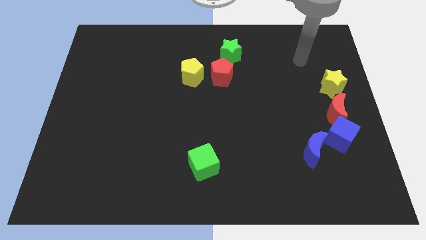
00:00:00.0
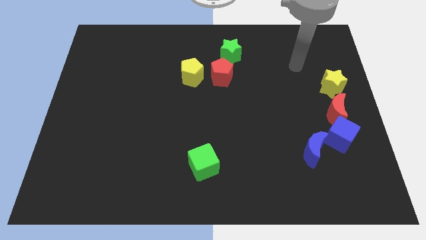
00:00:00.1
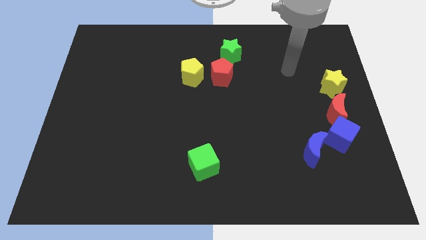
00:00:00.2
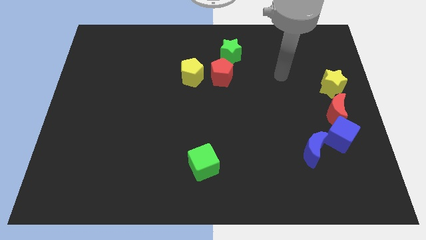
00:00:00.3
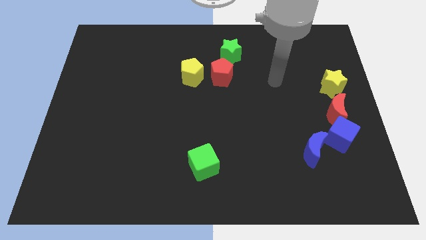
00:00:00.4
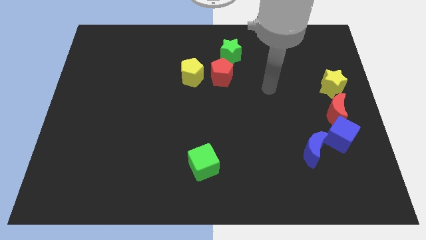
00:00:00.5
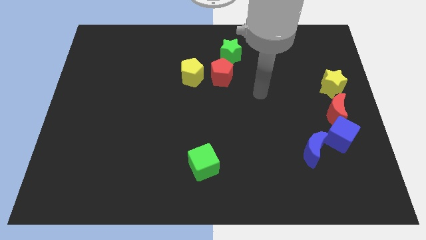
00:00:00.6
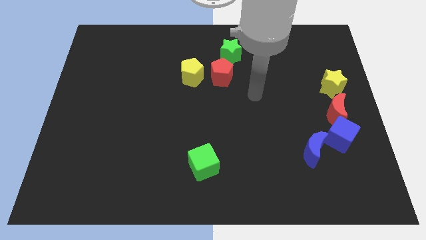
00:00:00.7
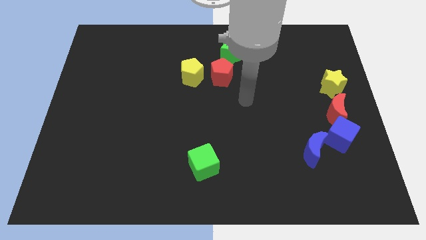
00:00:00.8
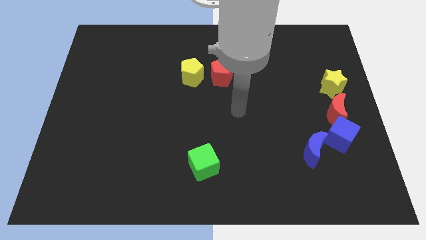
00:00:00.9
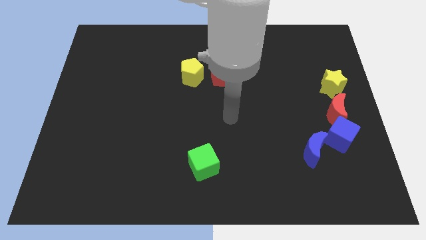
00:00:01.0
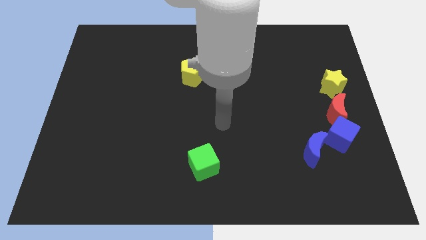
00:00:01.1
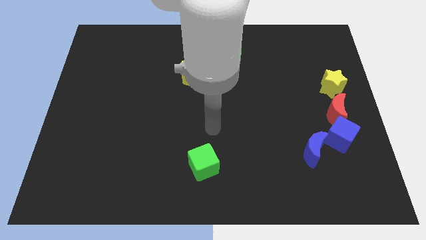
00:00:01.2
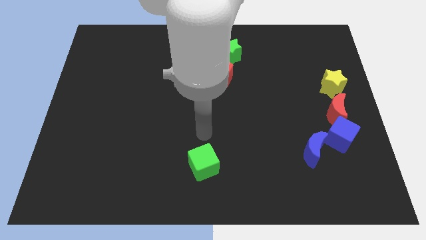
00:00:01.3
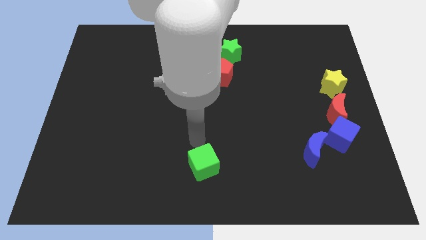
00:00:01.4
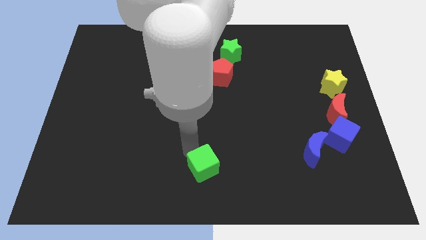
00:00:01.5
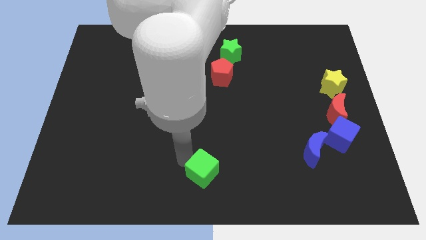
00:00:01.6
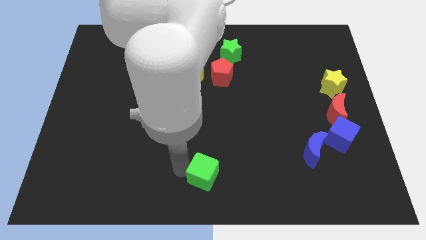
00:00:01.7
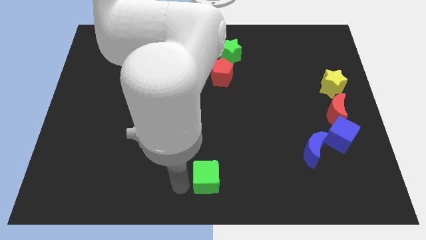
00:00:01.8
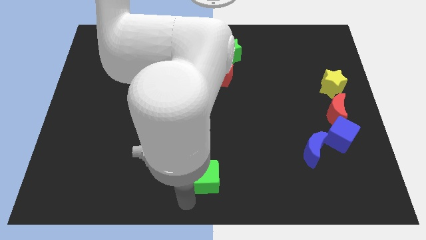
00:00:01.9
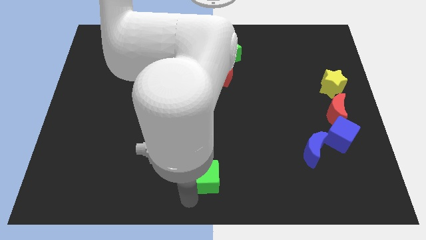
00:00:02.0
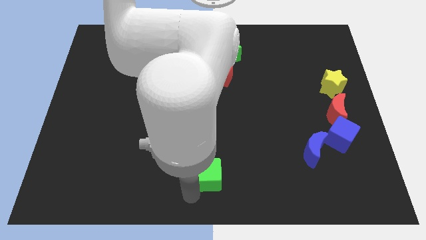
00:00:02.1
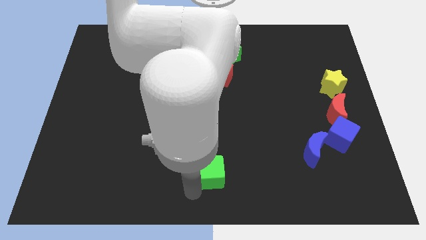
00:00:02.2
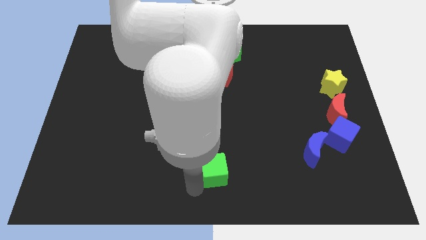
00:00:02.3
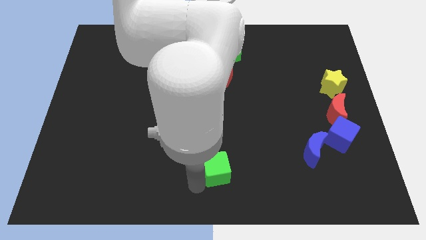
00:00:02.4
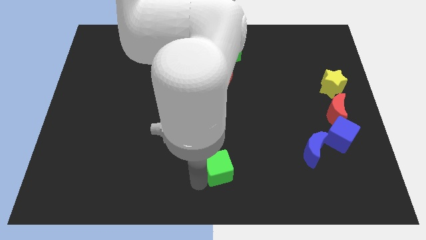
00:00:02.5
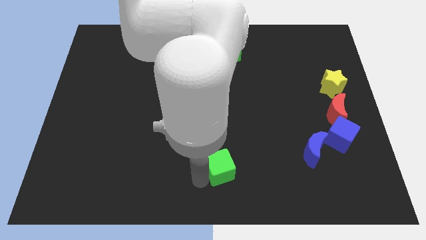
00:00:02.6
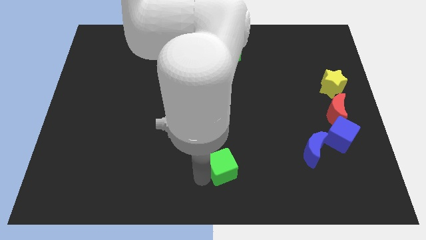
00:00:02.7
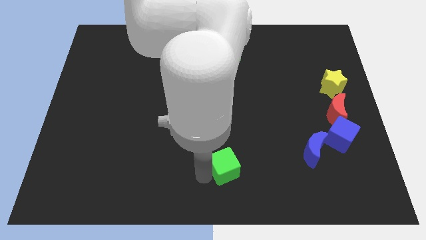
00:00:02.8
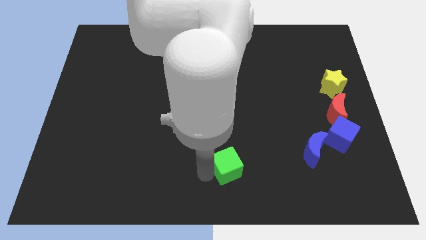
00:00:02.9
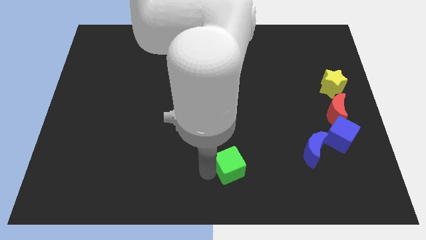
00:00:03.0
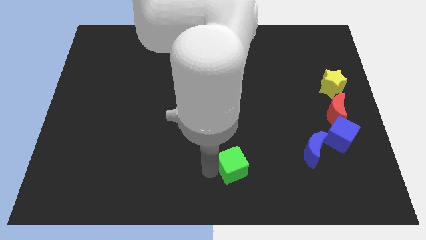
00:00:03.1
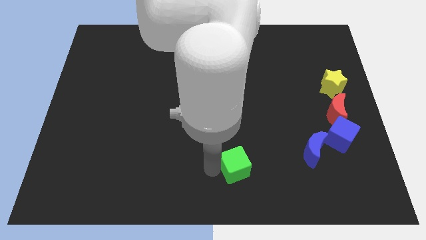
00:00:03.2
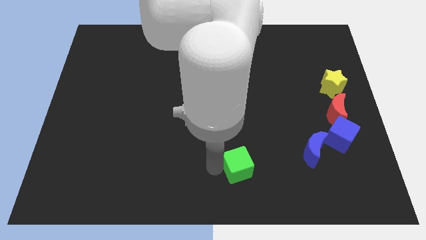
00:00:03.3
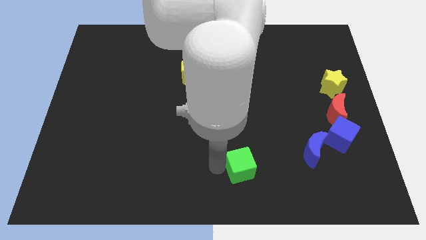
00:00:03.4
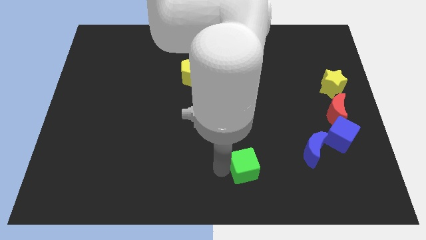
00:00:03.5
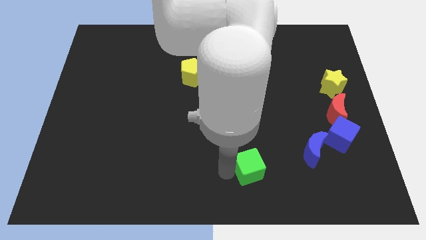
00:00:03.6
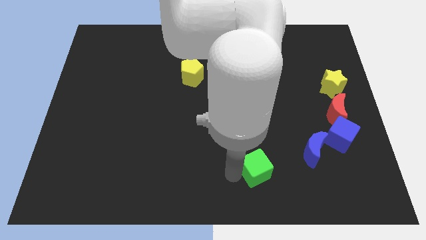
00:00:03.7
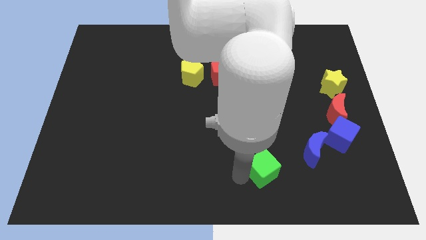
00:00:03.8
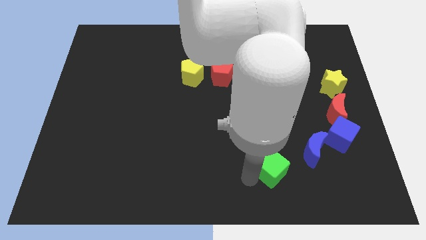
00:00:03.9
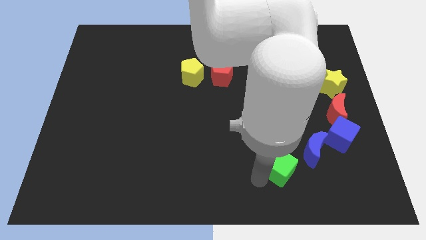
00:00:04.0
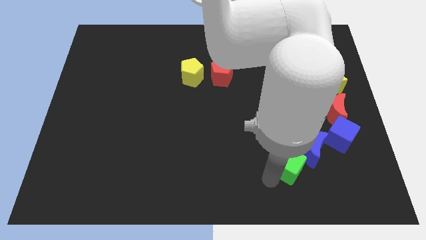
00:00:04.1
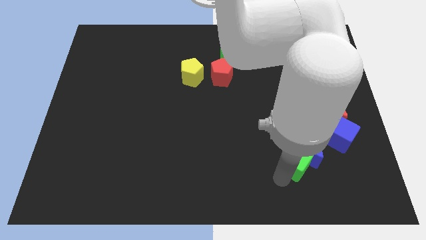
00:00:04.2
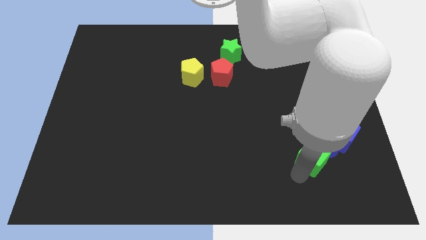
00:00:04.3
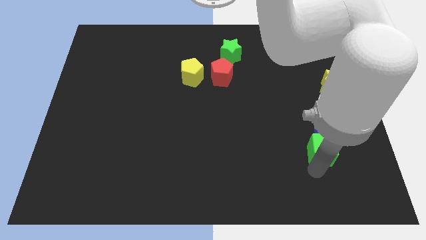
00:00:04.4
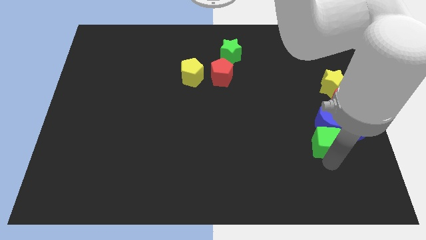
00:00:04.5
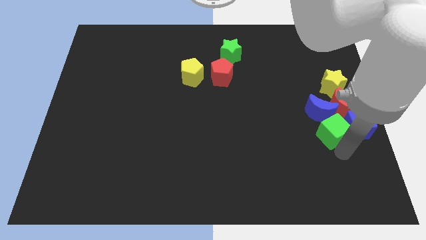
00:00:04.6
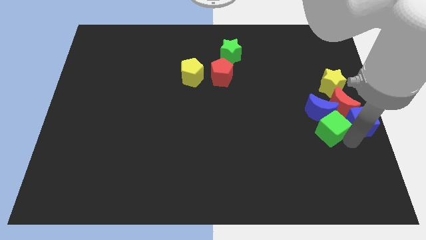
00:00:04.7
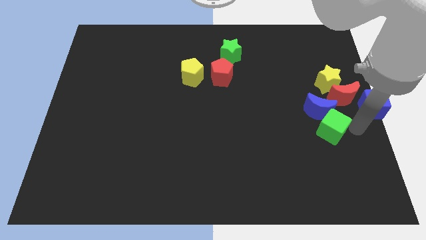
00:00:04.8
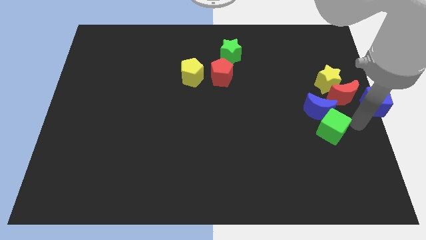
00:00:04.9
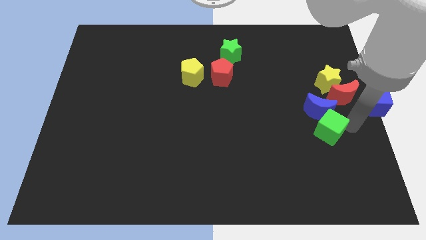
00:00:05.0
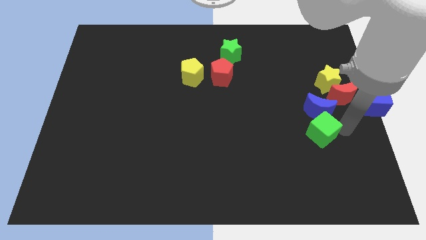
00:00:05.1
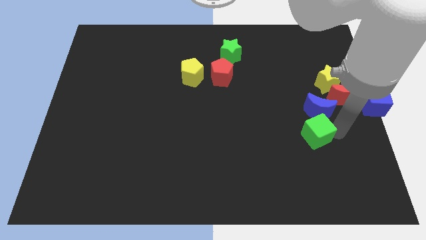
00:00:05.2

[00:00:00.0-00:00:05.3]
push the green cube up and right diagonally a little bit

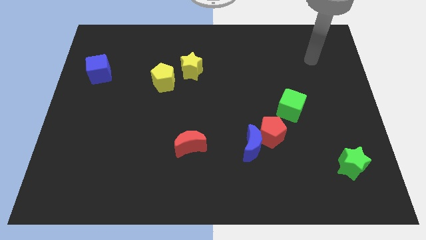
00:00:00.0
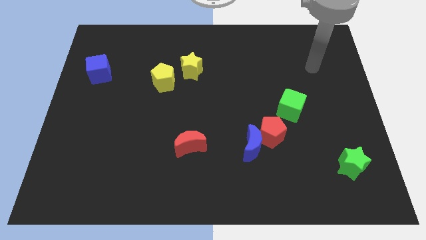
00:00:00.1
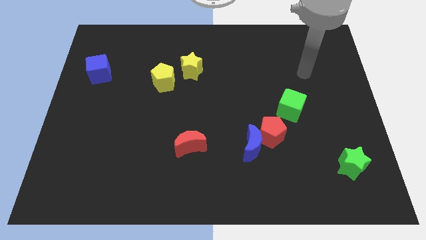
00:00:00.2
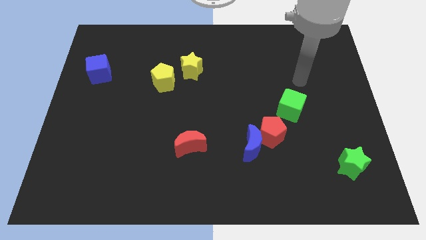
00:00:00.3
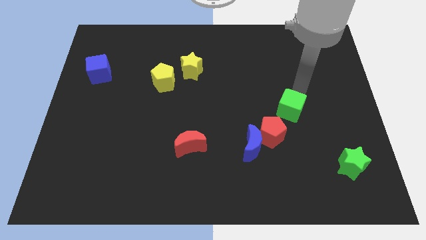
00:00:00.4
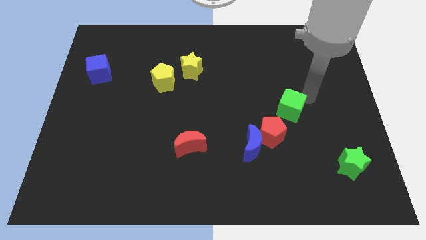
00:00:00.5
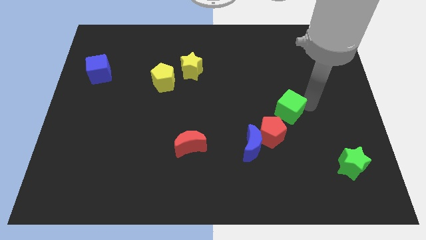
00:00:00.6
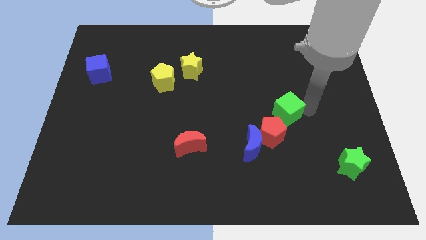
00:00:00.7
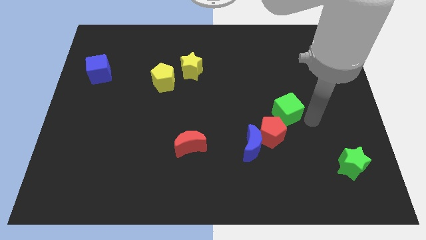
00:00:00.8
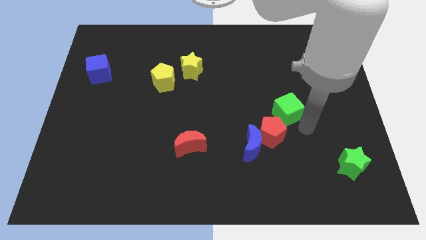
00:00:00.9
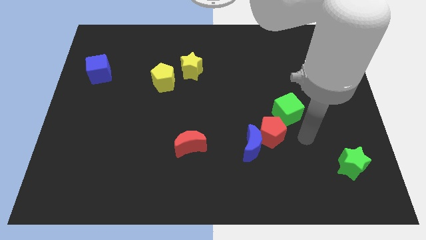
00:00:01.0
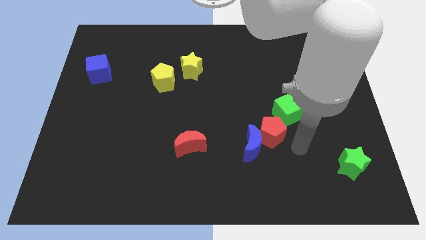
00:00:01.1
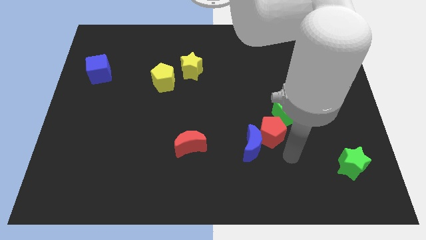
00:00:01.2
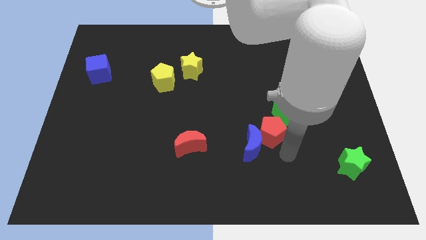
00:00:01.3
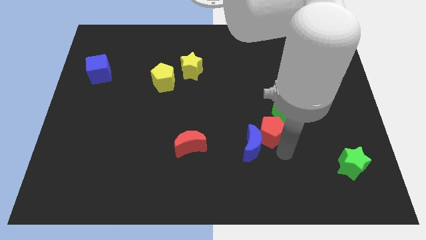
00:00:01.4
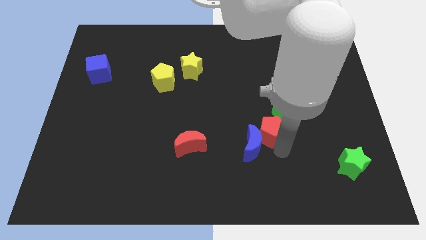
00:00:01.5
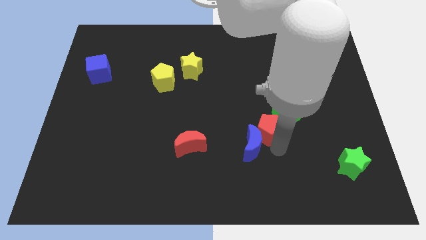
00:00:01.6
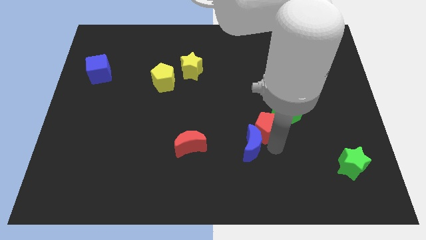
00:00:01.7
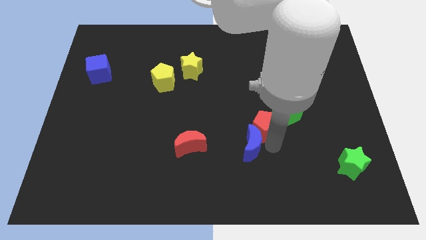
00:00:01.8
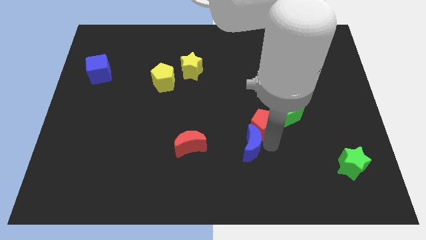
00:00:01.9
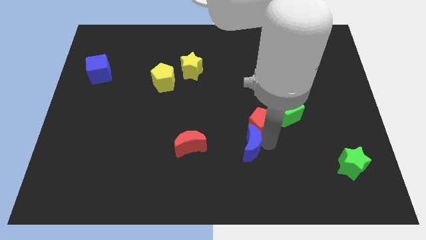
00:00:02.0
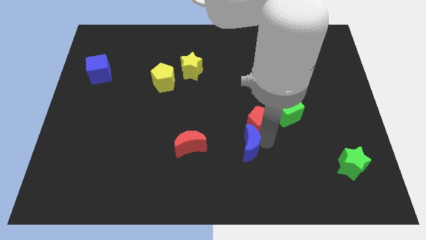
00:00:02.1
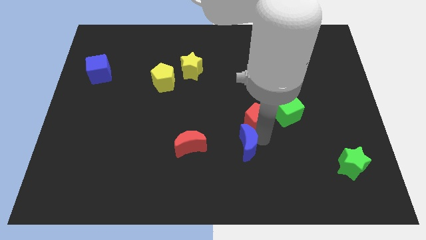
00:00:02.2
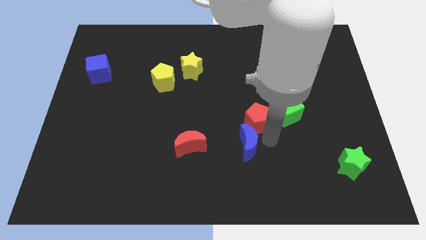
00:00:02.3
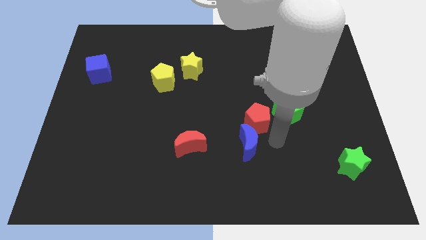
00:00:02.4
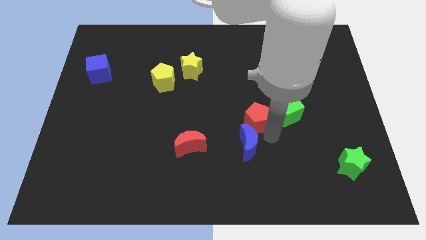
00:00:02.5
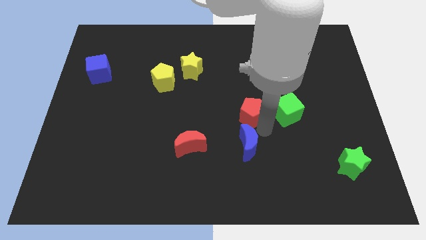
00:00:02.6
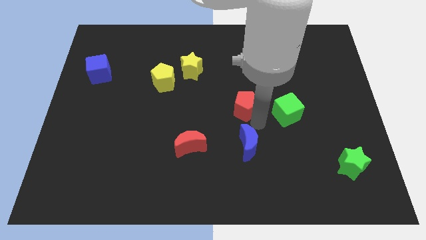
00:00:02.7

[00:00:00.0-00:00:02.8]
slightly slide the red pentagon up and to the left diagonally

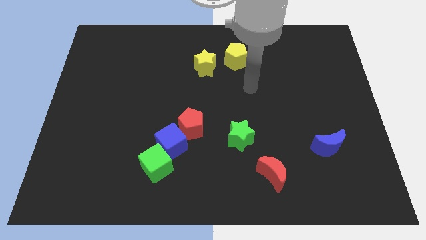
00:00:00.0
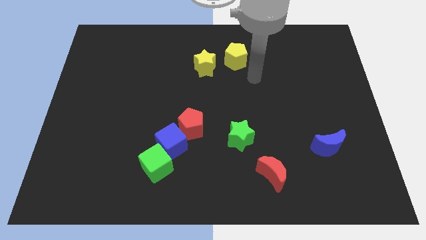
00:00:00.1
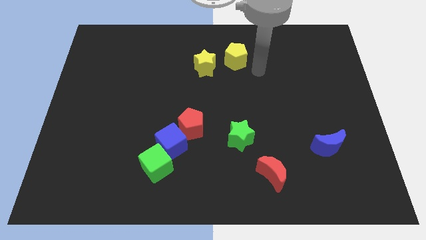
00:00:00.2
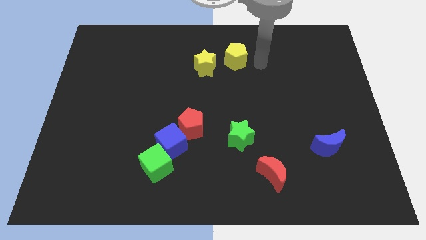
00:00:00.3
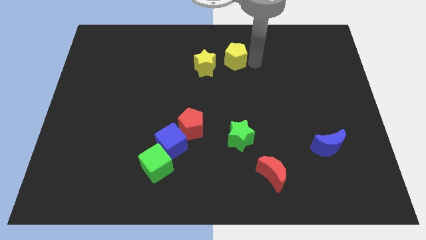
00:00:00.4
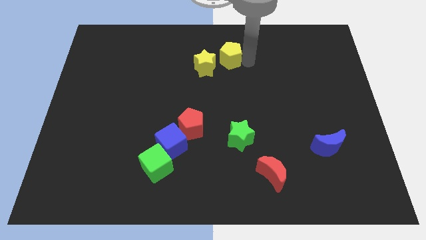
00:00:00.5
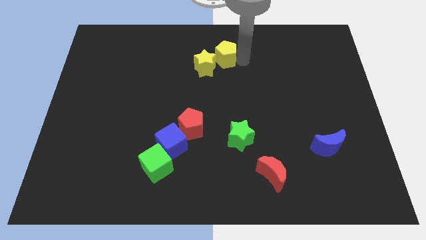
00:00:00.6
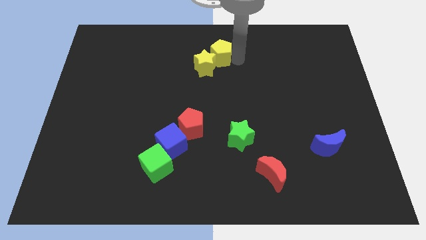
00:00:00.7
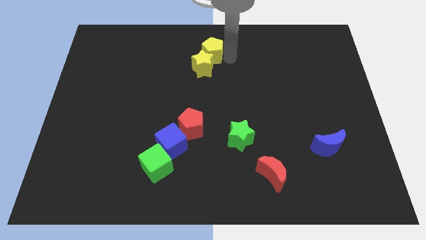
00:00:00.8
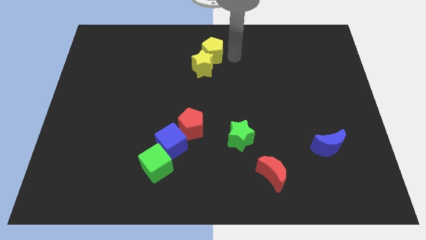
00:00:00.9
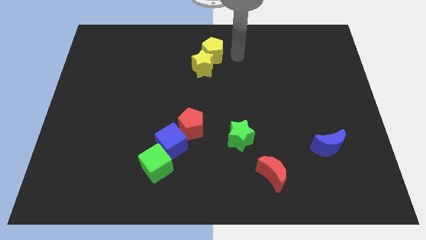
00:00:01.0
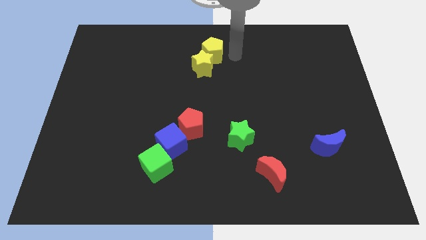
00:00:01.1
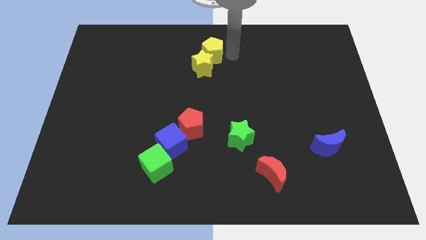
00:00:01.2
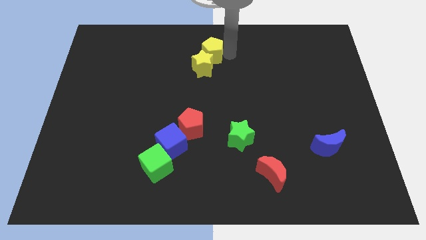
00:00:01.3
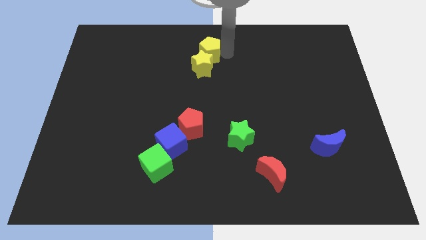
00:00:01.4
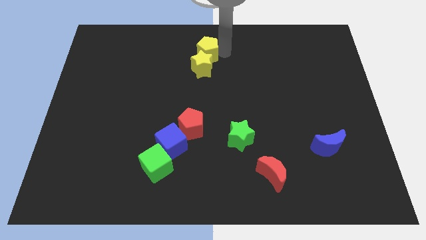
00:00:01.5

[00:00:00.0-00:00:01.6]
push the yellow pentagon to the left a bit
